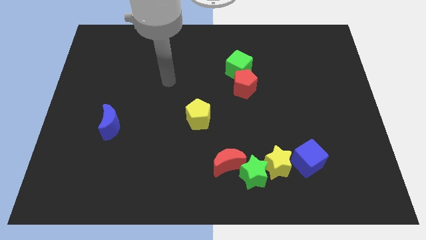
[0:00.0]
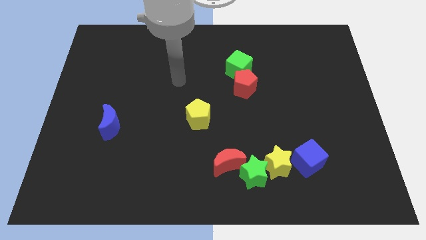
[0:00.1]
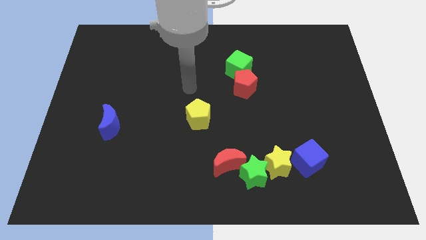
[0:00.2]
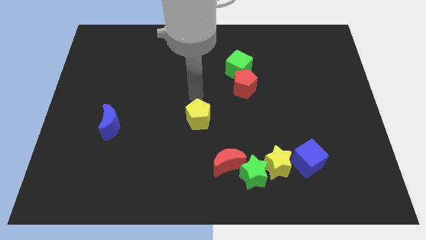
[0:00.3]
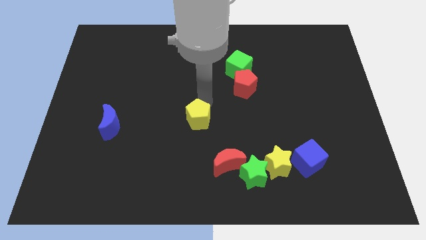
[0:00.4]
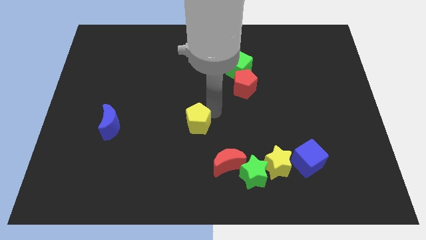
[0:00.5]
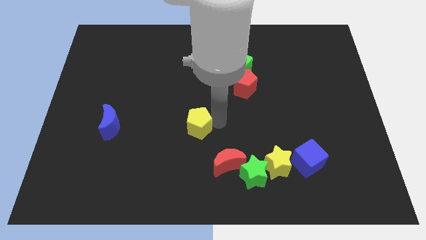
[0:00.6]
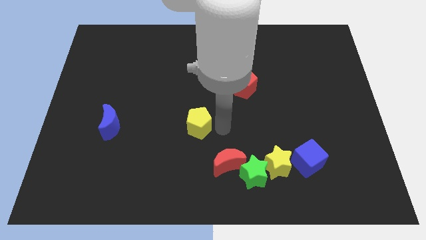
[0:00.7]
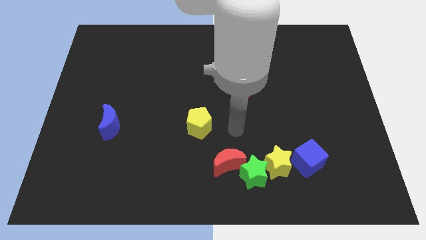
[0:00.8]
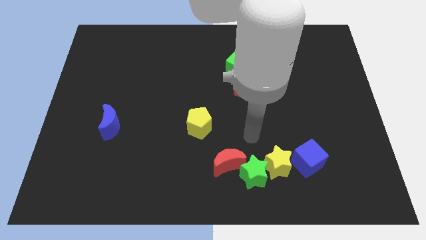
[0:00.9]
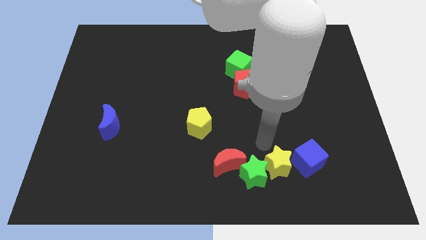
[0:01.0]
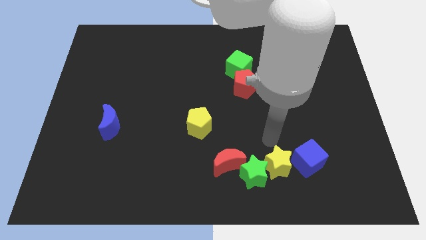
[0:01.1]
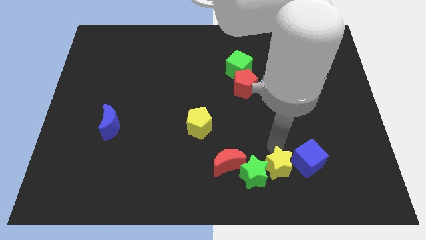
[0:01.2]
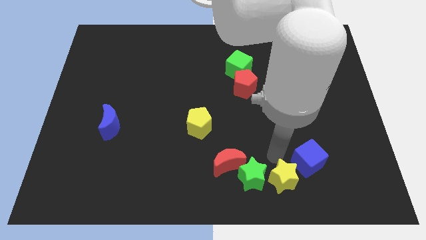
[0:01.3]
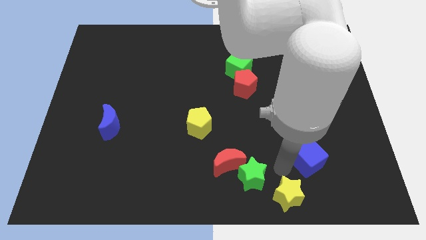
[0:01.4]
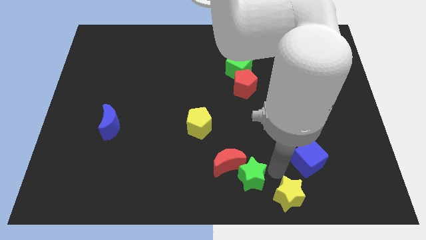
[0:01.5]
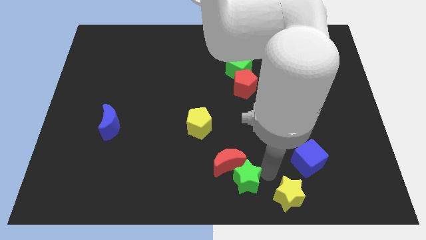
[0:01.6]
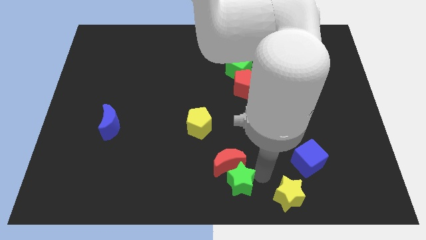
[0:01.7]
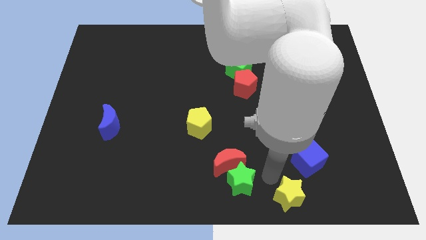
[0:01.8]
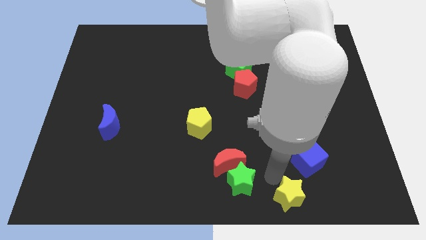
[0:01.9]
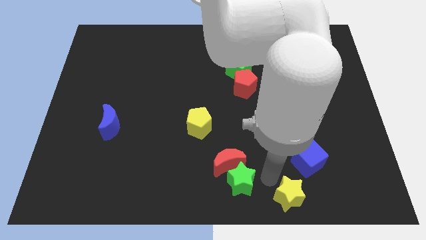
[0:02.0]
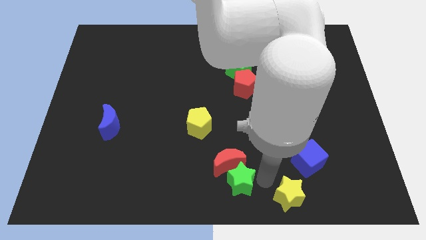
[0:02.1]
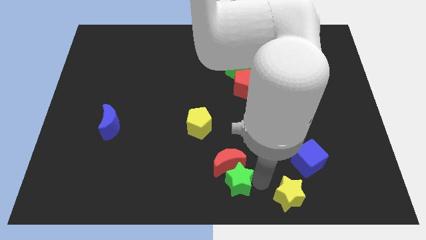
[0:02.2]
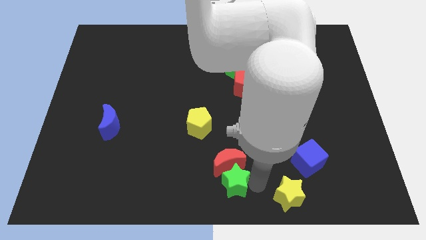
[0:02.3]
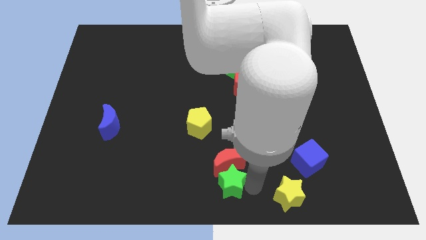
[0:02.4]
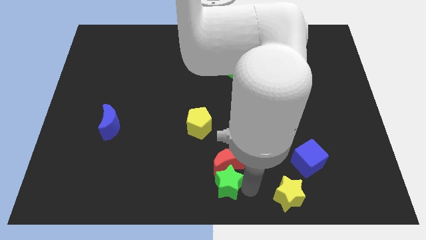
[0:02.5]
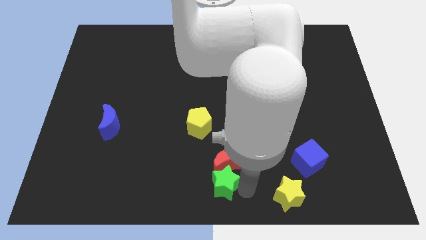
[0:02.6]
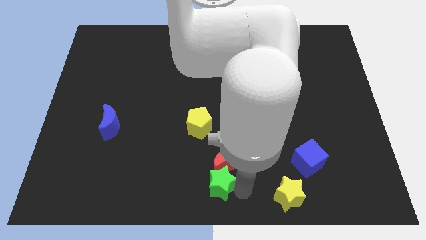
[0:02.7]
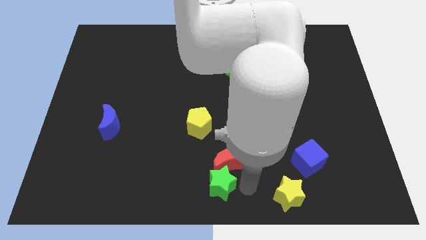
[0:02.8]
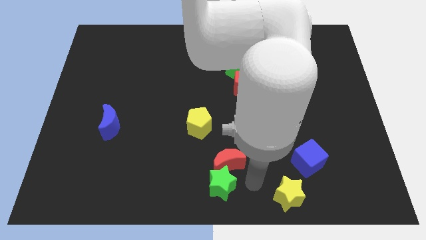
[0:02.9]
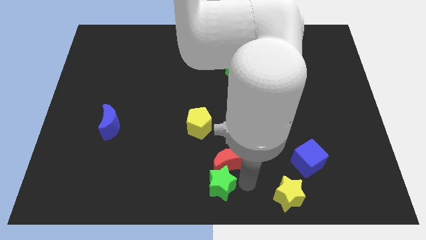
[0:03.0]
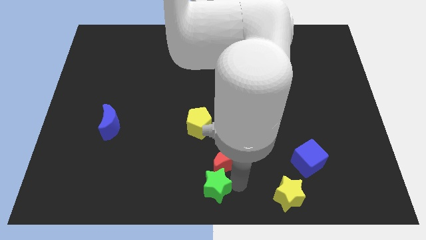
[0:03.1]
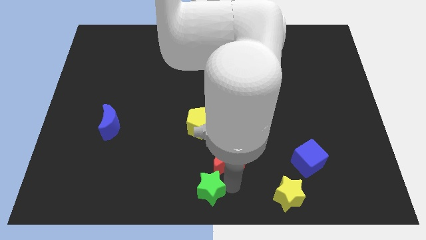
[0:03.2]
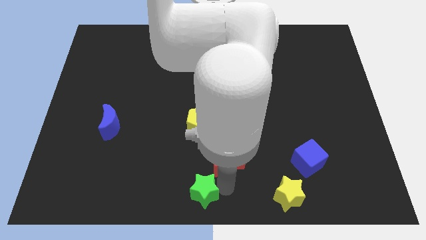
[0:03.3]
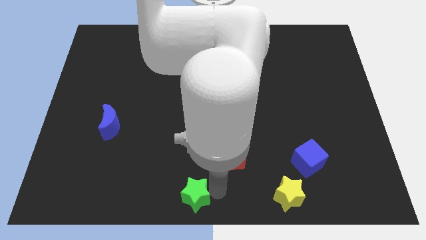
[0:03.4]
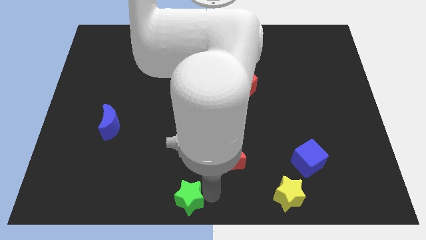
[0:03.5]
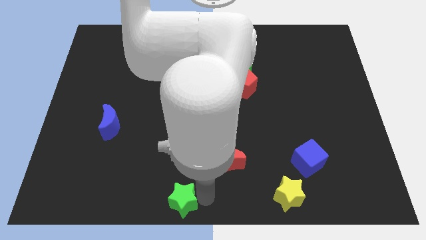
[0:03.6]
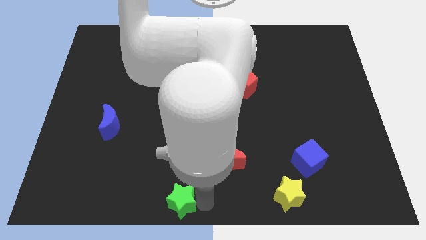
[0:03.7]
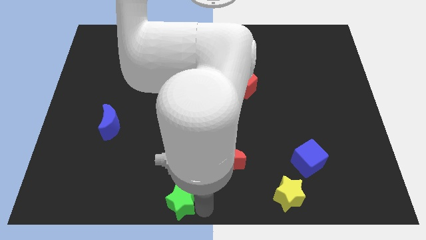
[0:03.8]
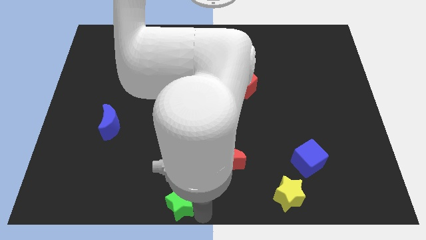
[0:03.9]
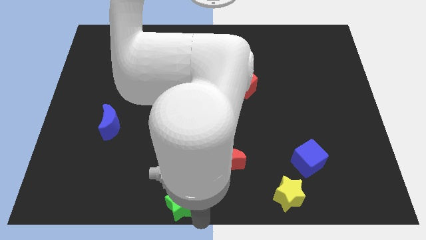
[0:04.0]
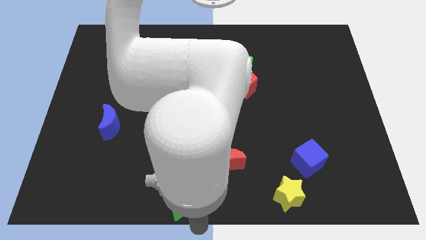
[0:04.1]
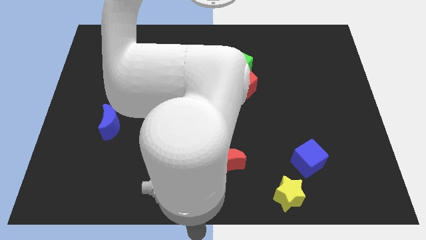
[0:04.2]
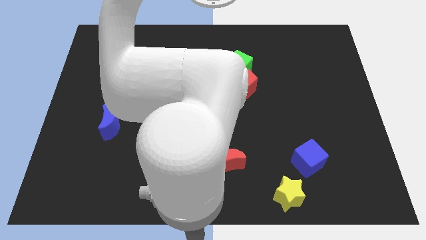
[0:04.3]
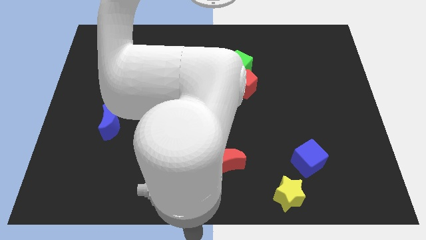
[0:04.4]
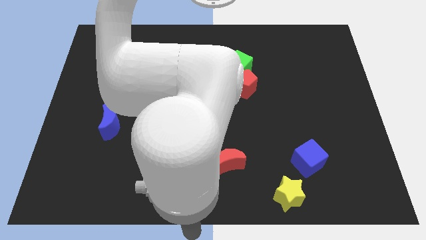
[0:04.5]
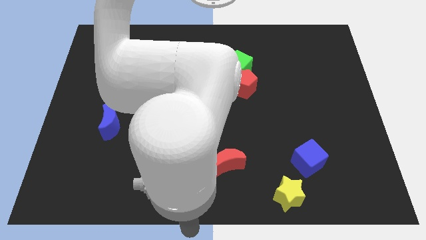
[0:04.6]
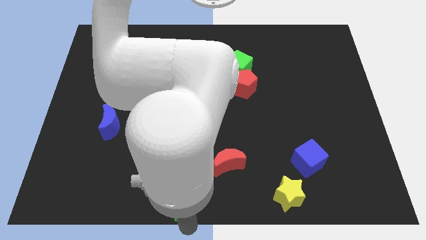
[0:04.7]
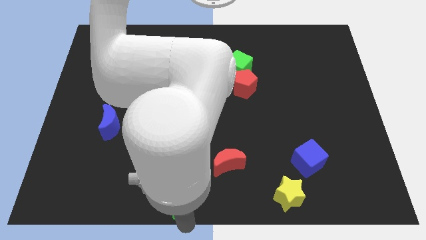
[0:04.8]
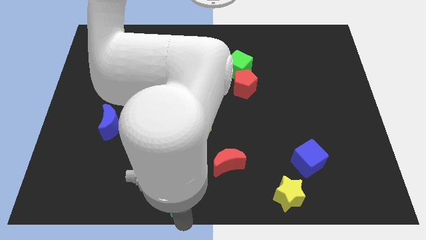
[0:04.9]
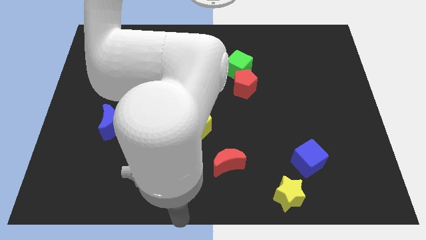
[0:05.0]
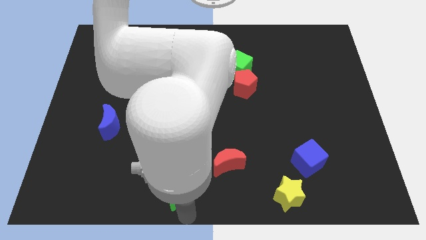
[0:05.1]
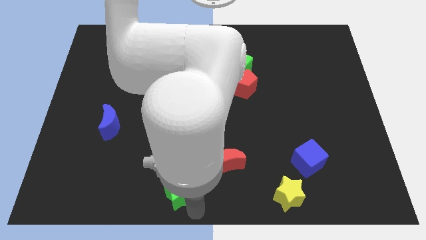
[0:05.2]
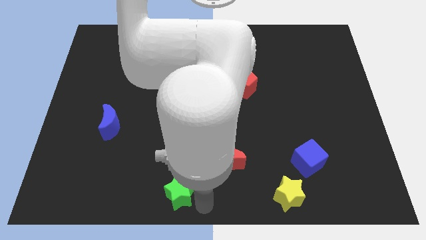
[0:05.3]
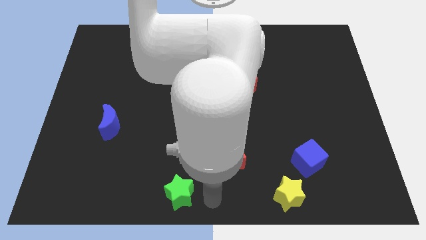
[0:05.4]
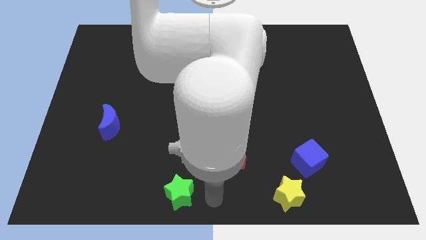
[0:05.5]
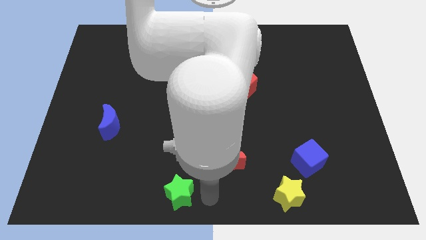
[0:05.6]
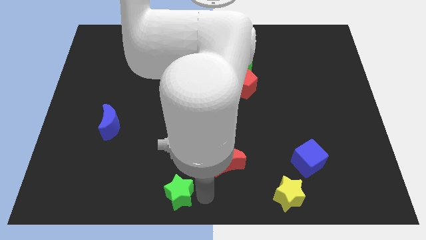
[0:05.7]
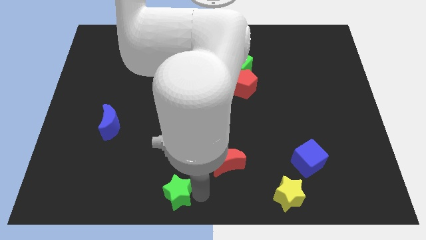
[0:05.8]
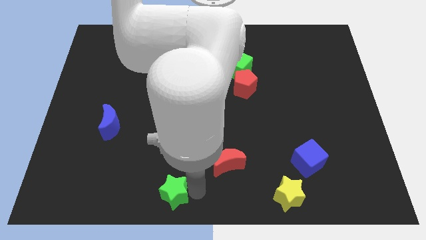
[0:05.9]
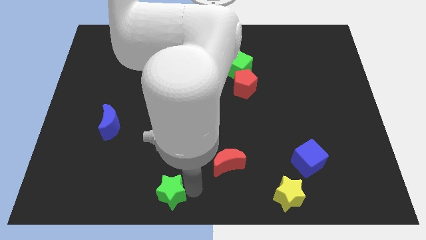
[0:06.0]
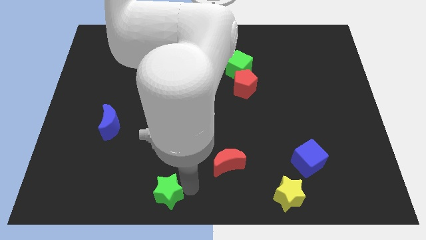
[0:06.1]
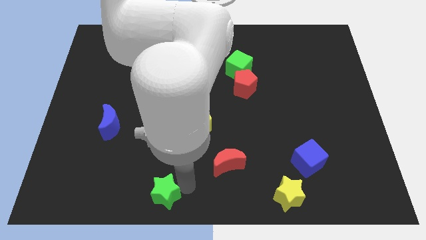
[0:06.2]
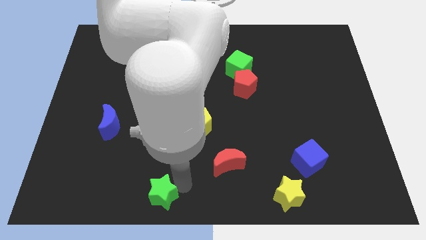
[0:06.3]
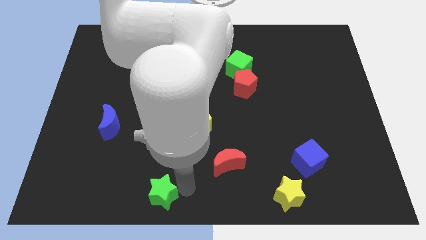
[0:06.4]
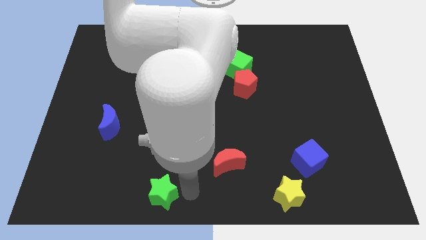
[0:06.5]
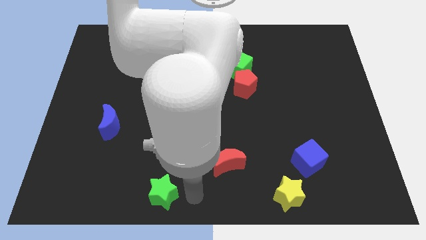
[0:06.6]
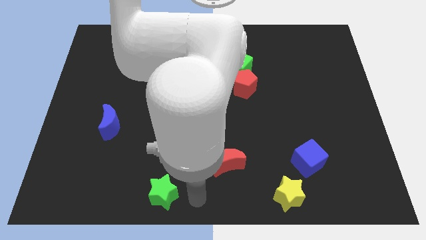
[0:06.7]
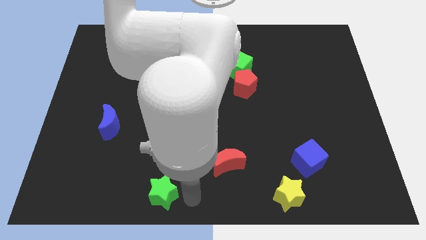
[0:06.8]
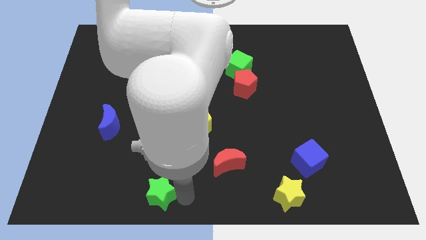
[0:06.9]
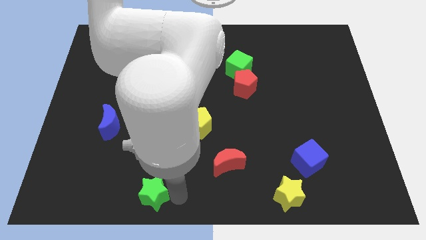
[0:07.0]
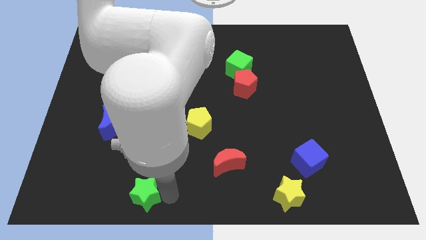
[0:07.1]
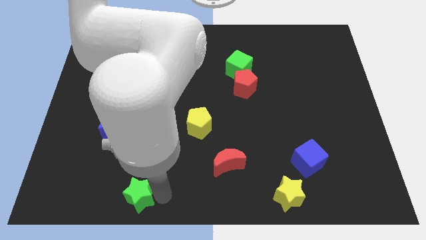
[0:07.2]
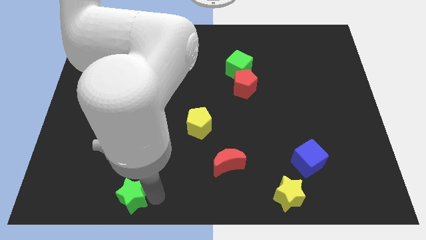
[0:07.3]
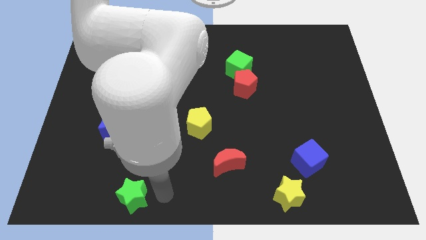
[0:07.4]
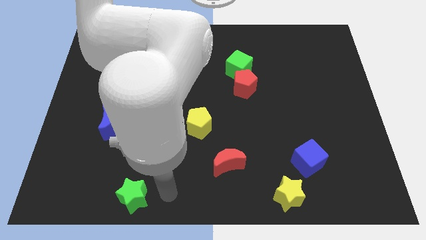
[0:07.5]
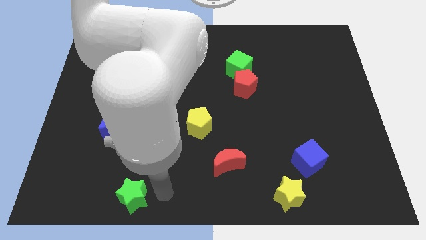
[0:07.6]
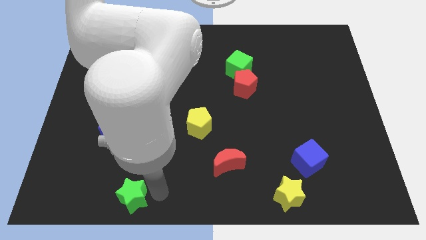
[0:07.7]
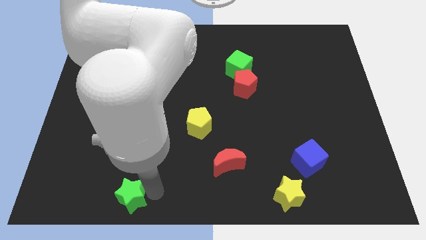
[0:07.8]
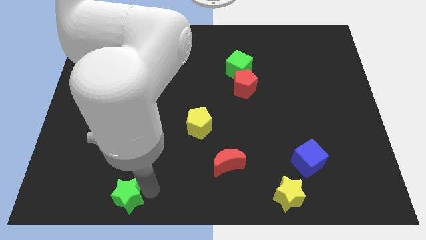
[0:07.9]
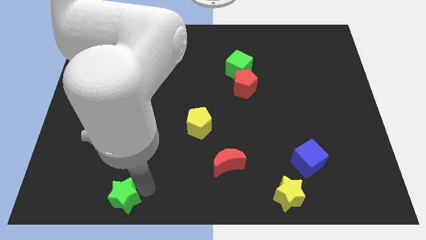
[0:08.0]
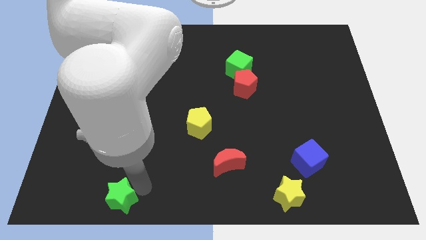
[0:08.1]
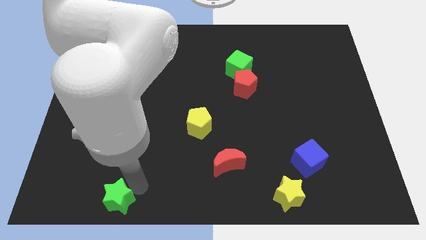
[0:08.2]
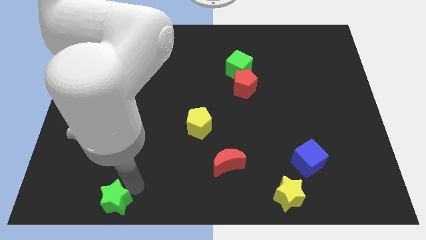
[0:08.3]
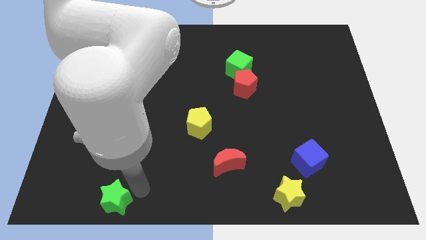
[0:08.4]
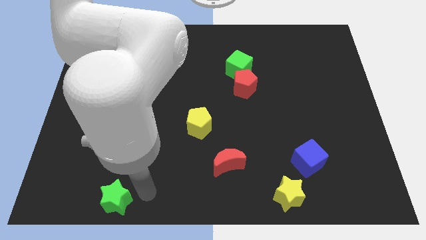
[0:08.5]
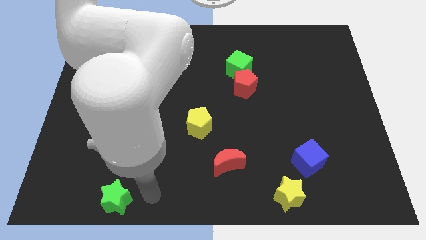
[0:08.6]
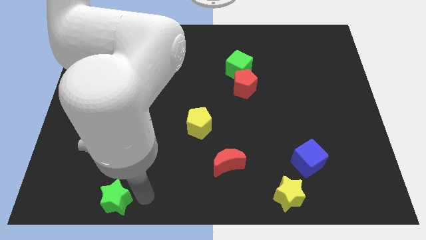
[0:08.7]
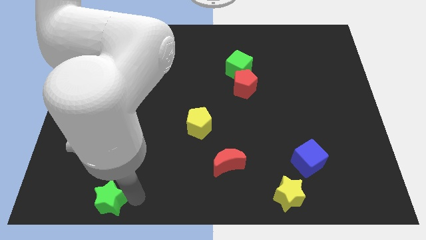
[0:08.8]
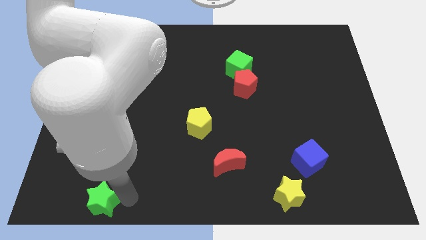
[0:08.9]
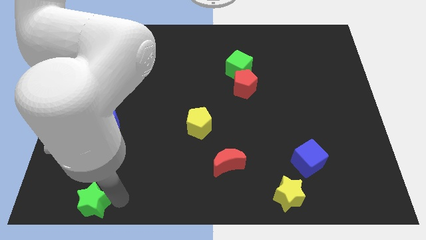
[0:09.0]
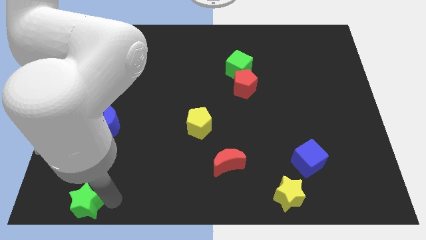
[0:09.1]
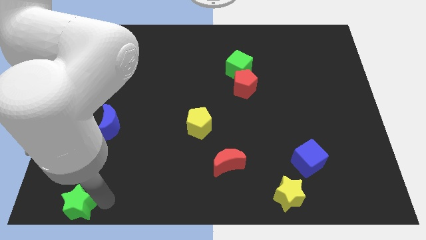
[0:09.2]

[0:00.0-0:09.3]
push the green star to the bottom left
